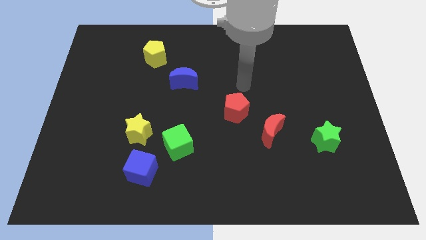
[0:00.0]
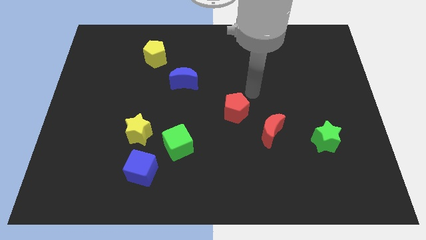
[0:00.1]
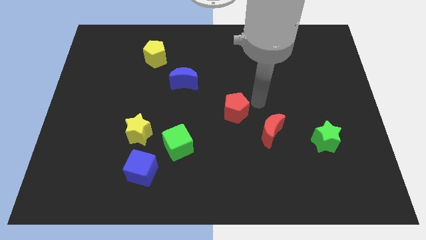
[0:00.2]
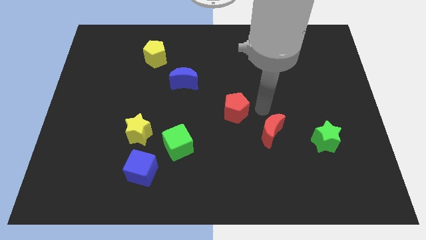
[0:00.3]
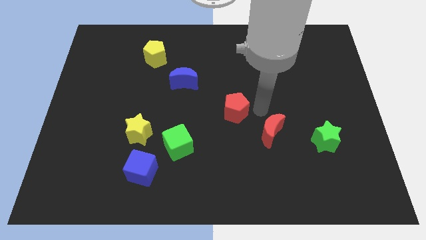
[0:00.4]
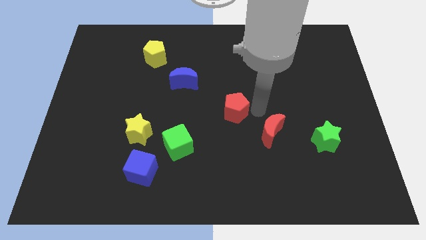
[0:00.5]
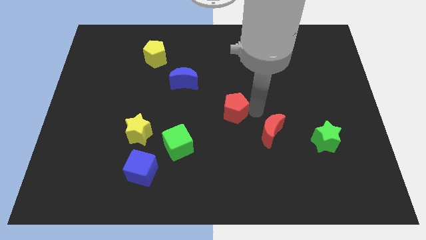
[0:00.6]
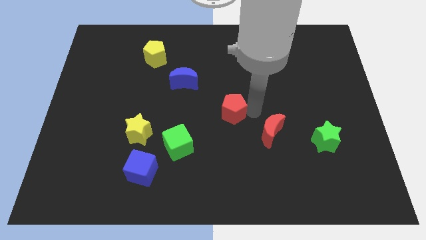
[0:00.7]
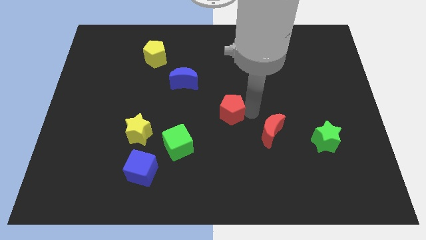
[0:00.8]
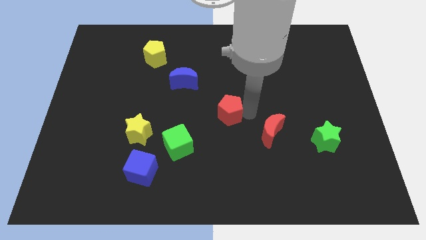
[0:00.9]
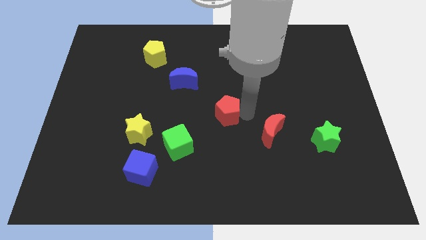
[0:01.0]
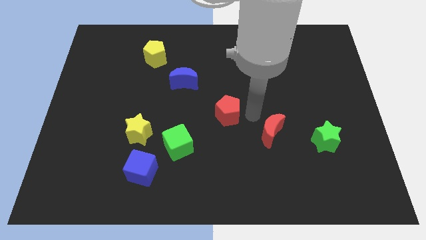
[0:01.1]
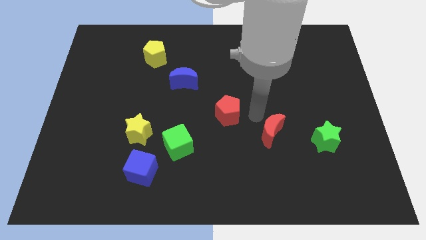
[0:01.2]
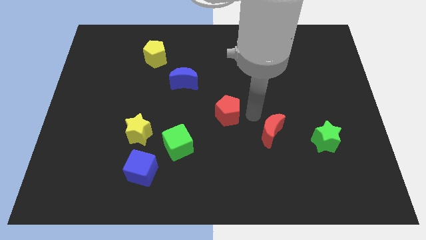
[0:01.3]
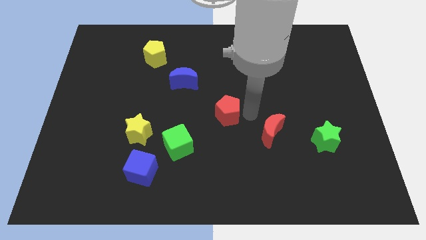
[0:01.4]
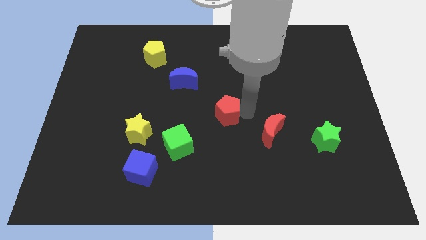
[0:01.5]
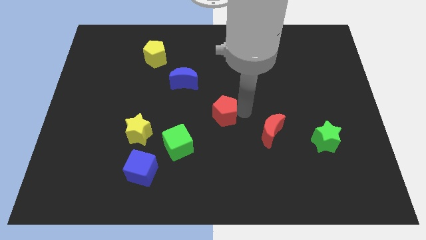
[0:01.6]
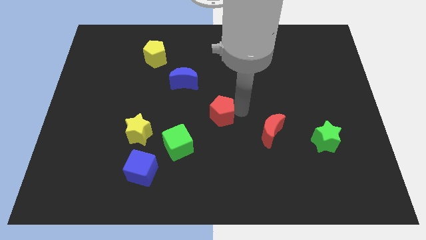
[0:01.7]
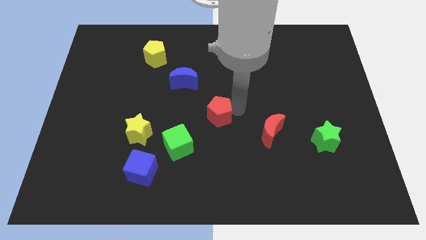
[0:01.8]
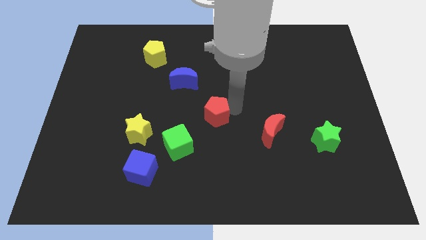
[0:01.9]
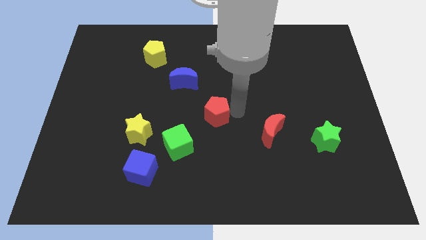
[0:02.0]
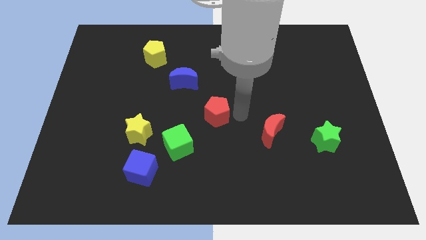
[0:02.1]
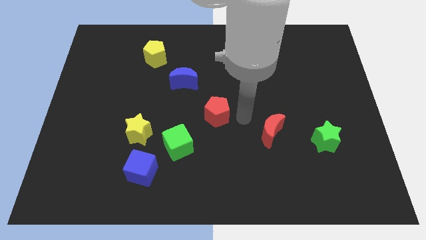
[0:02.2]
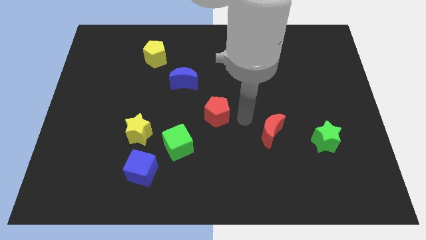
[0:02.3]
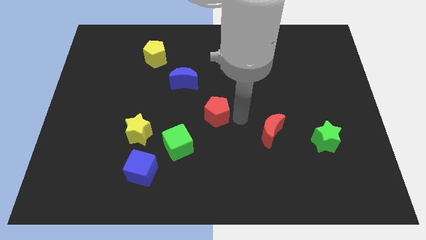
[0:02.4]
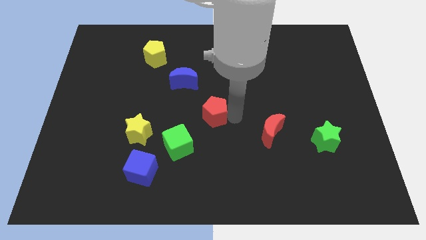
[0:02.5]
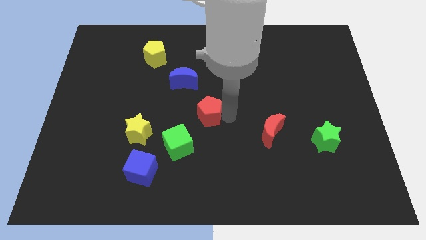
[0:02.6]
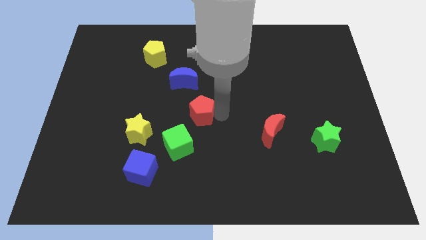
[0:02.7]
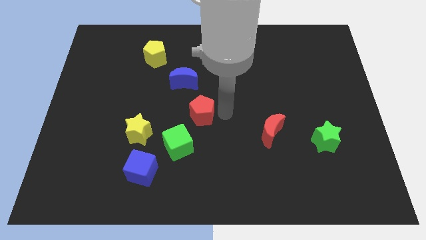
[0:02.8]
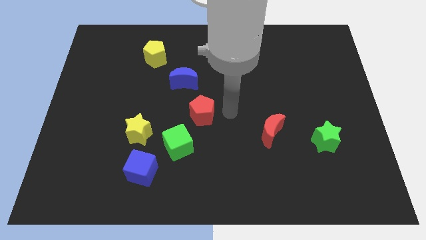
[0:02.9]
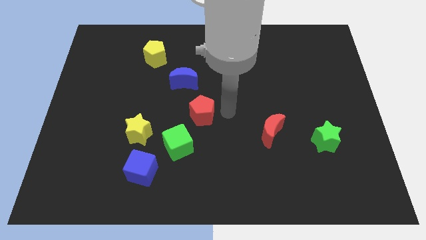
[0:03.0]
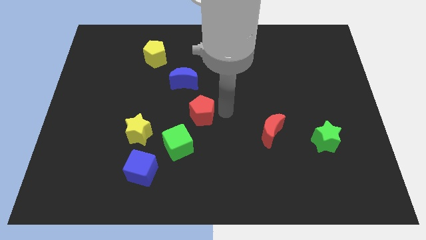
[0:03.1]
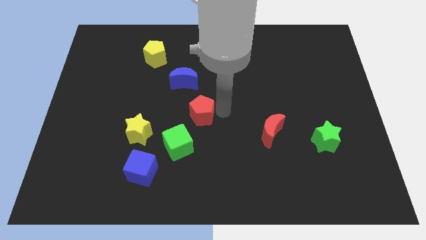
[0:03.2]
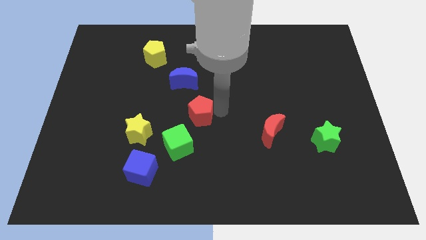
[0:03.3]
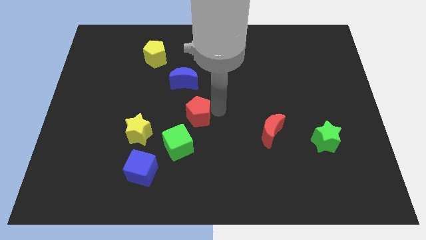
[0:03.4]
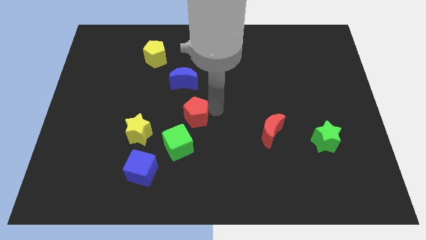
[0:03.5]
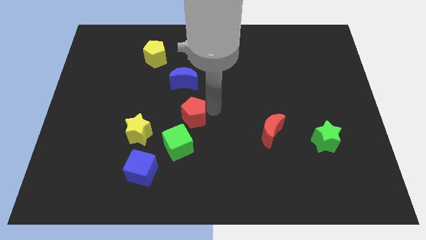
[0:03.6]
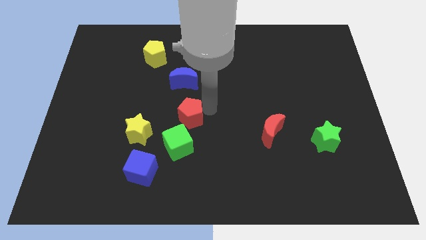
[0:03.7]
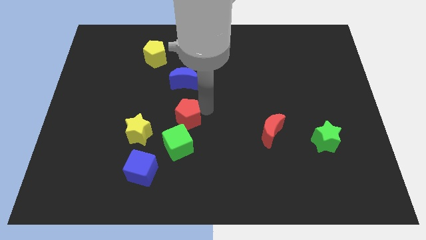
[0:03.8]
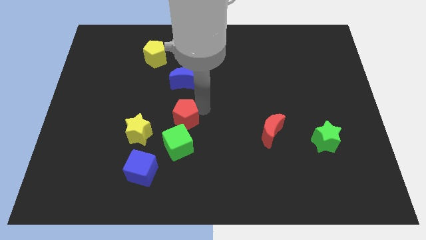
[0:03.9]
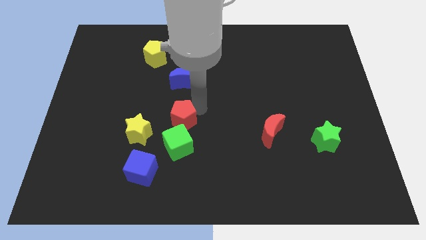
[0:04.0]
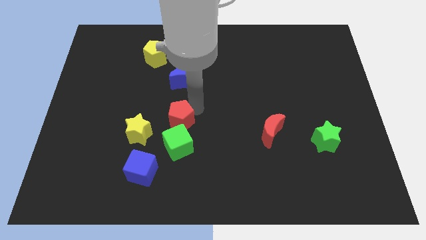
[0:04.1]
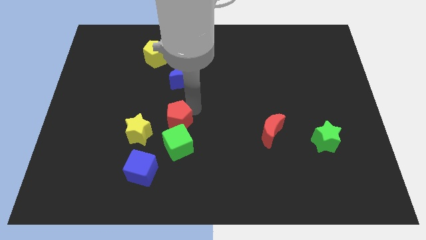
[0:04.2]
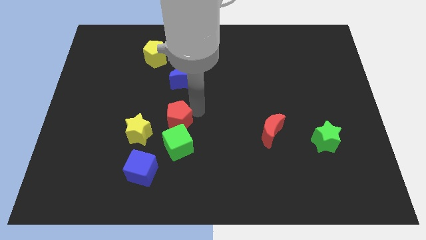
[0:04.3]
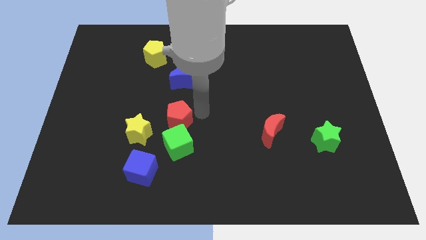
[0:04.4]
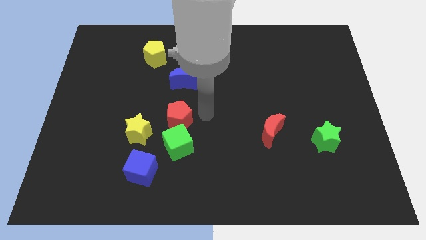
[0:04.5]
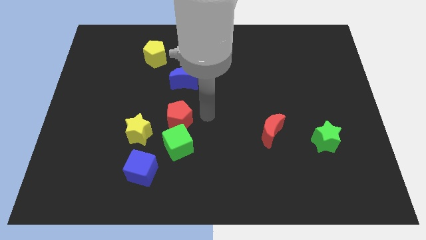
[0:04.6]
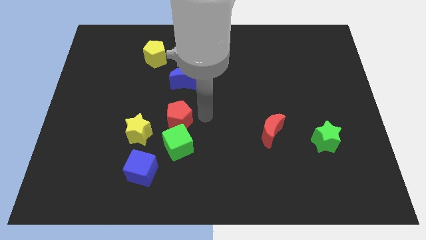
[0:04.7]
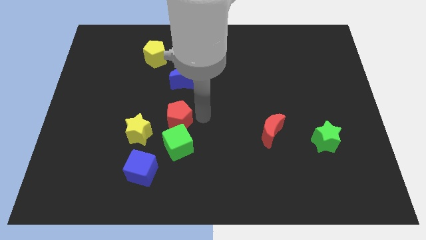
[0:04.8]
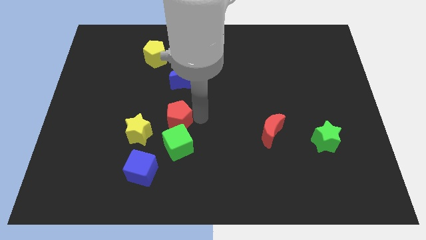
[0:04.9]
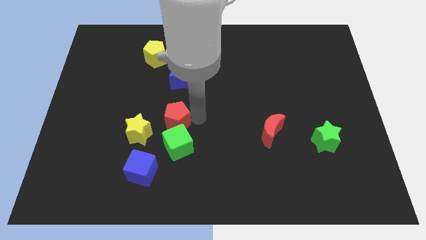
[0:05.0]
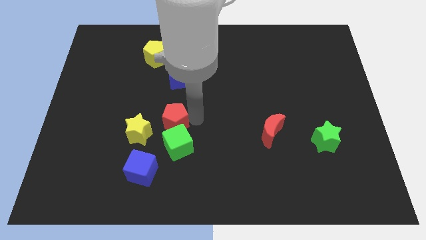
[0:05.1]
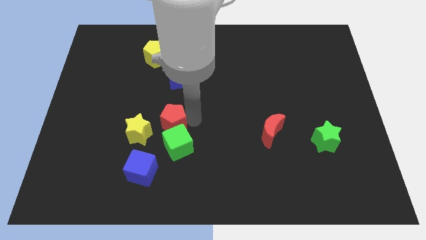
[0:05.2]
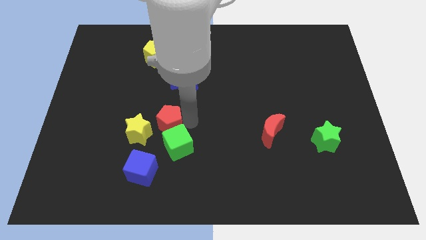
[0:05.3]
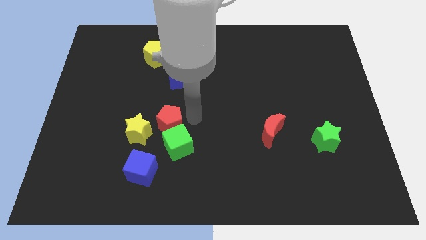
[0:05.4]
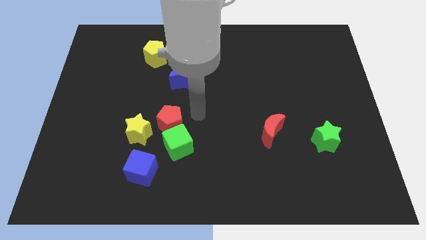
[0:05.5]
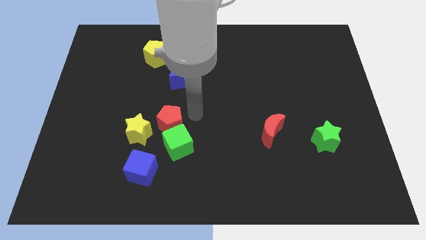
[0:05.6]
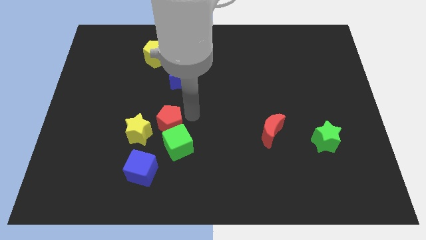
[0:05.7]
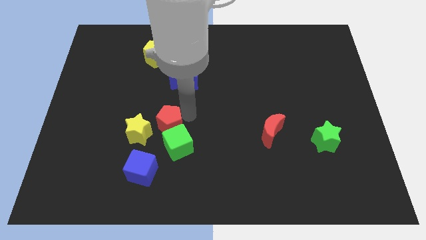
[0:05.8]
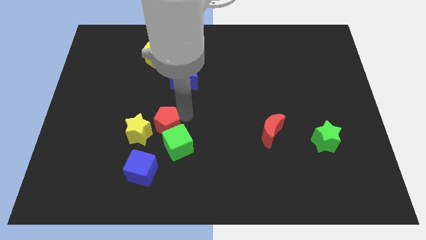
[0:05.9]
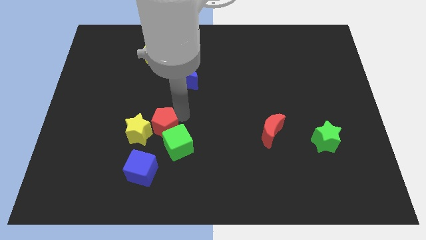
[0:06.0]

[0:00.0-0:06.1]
put the red pentagon next to the yellow star

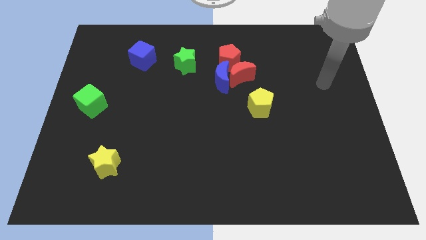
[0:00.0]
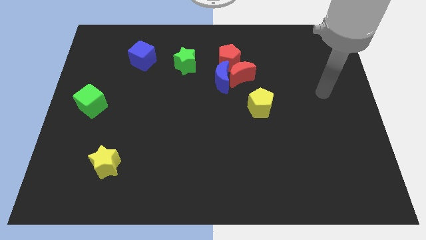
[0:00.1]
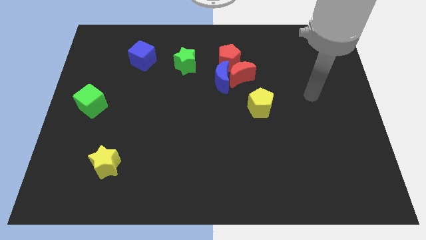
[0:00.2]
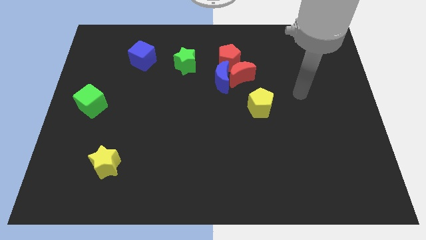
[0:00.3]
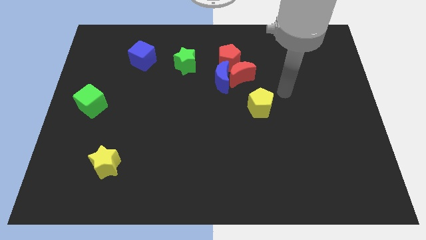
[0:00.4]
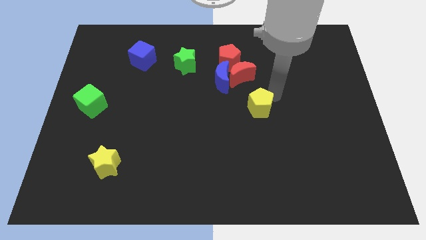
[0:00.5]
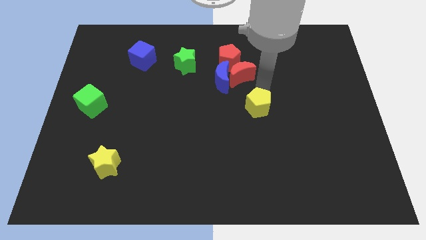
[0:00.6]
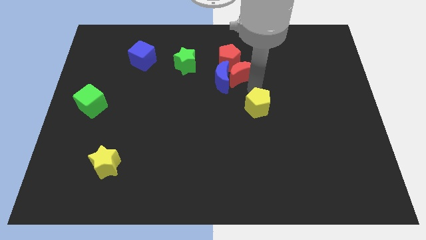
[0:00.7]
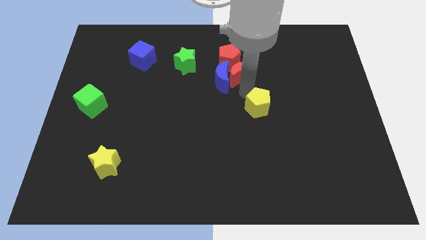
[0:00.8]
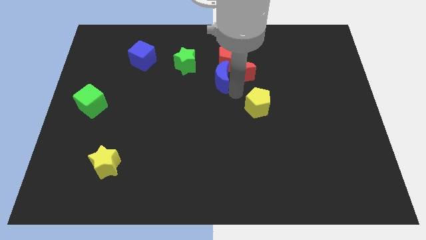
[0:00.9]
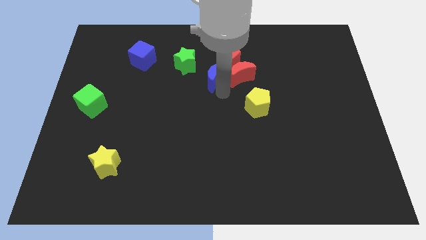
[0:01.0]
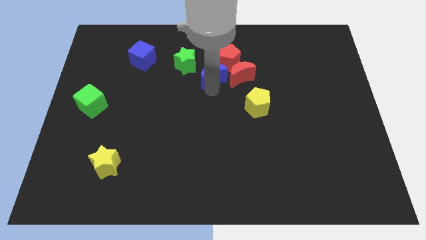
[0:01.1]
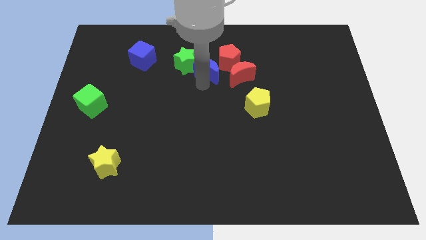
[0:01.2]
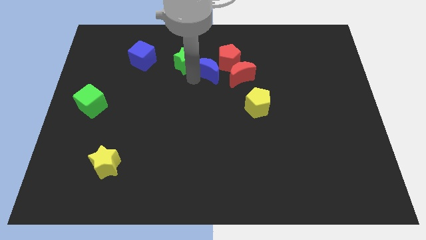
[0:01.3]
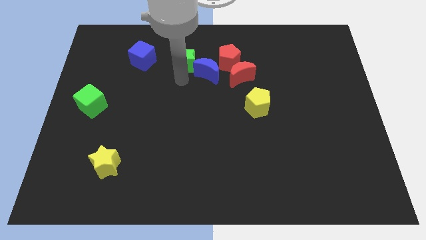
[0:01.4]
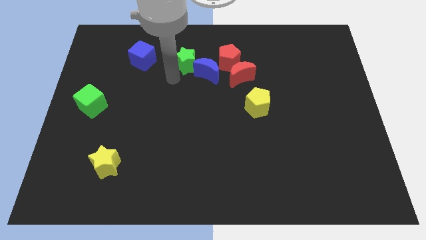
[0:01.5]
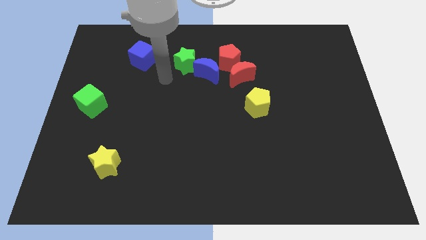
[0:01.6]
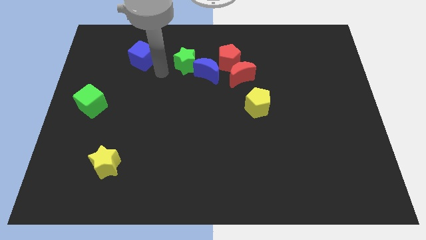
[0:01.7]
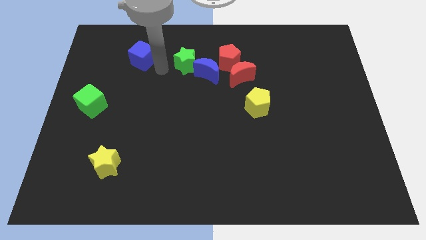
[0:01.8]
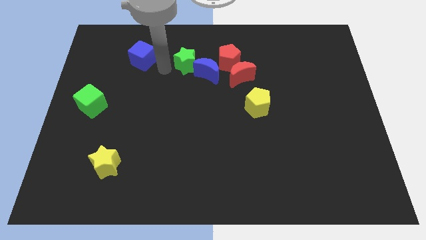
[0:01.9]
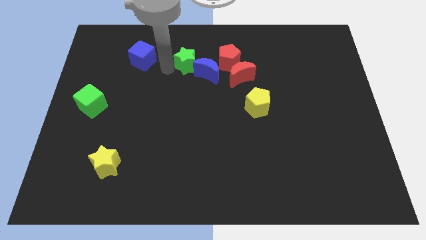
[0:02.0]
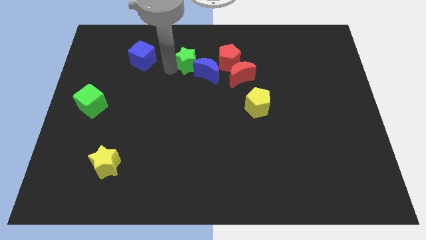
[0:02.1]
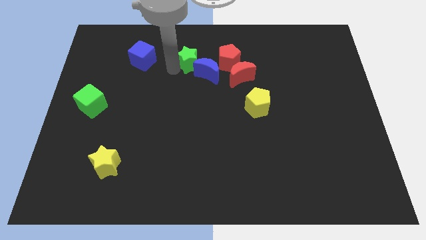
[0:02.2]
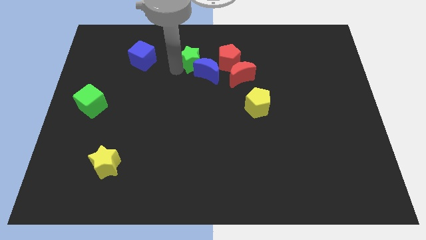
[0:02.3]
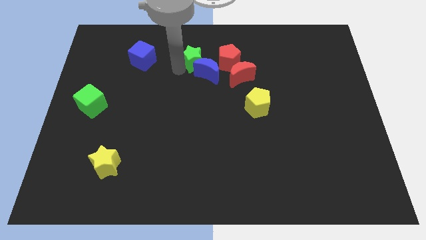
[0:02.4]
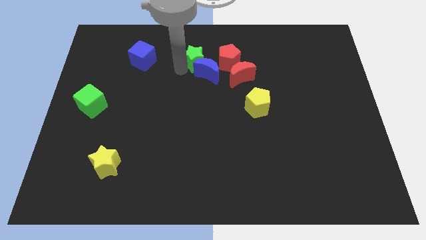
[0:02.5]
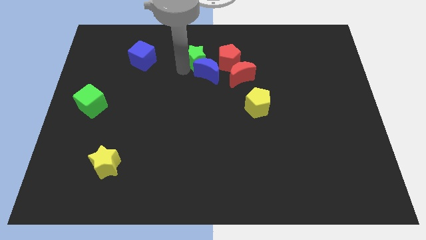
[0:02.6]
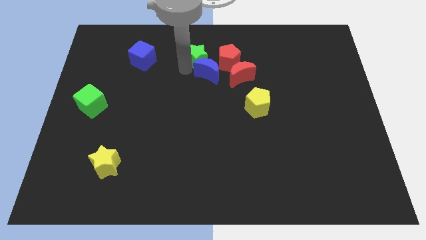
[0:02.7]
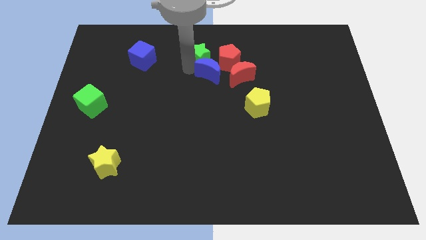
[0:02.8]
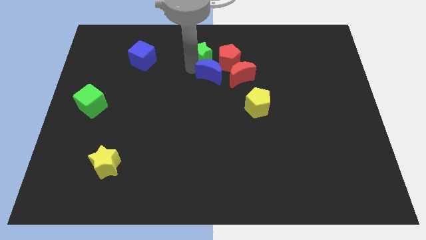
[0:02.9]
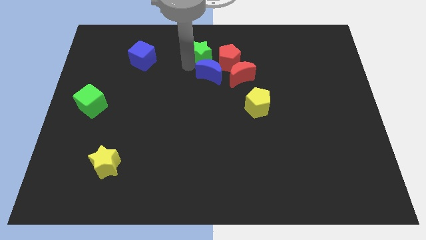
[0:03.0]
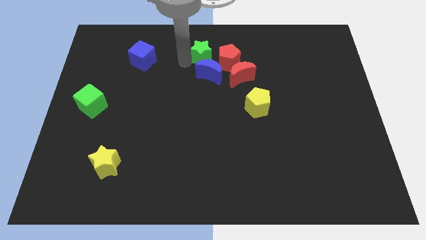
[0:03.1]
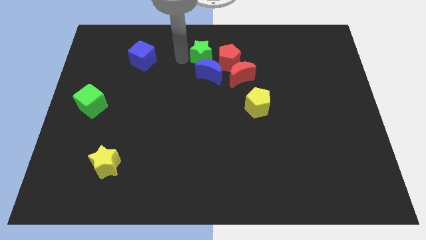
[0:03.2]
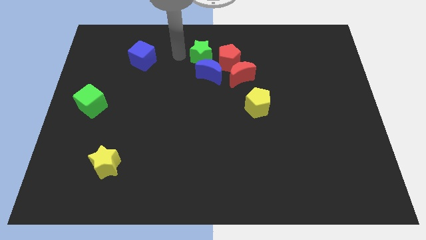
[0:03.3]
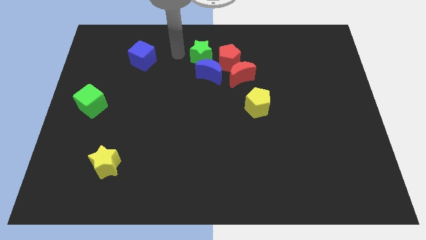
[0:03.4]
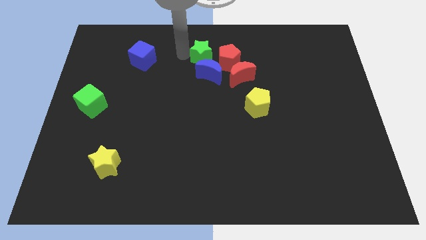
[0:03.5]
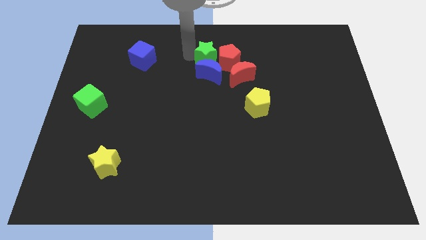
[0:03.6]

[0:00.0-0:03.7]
move the green star towards the red pentagon
